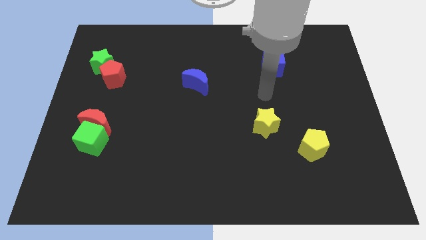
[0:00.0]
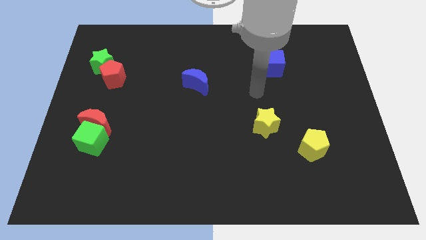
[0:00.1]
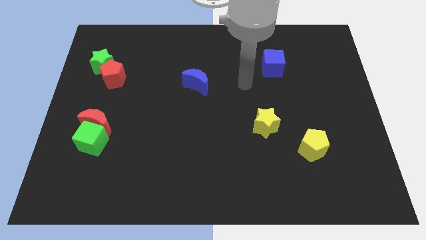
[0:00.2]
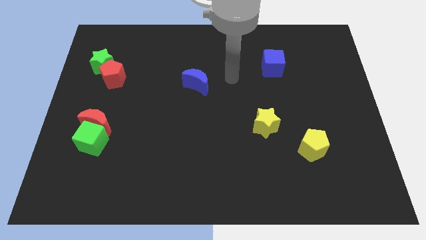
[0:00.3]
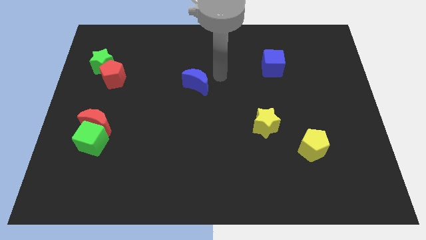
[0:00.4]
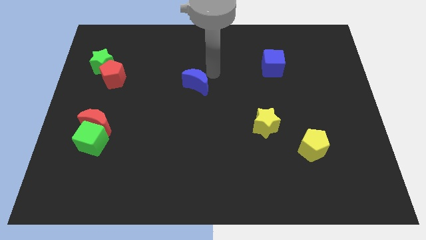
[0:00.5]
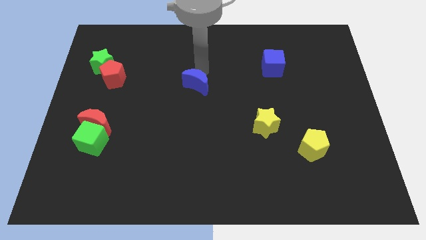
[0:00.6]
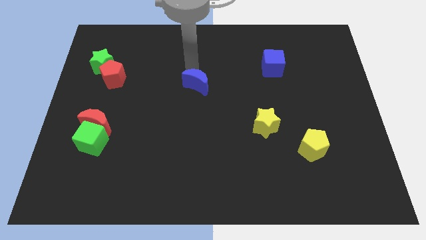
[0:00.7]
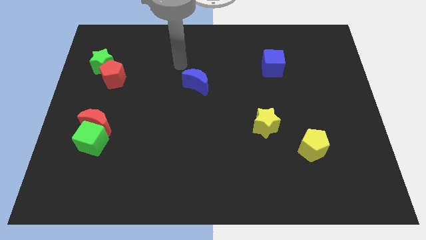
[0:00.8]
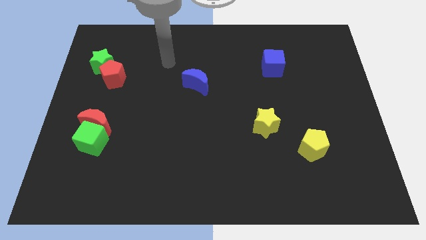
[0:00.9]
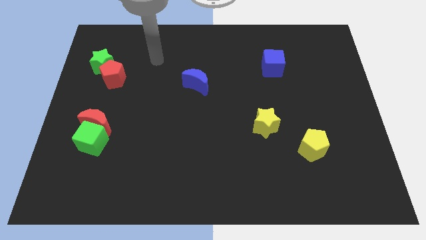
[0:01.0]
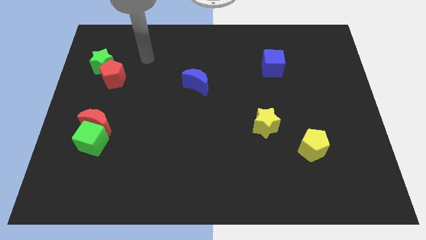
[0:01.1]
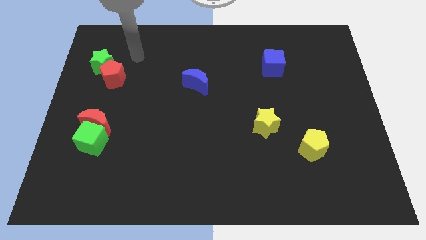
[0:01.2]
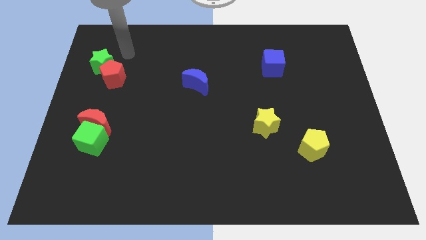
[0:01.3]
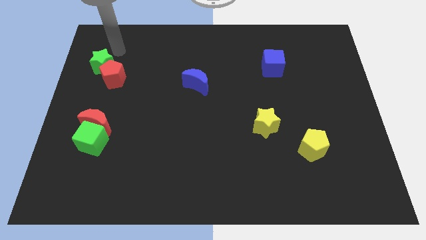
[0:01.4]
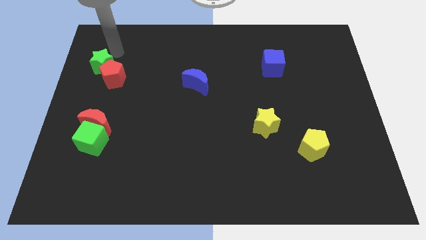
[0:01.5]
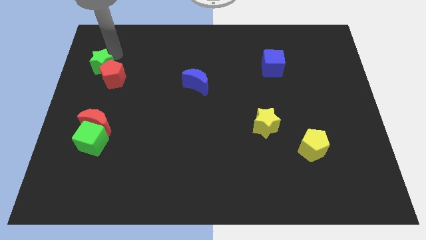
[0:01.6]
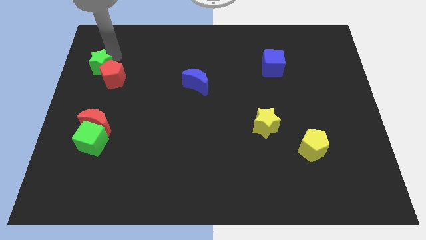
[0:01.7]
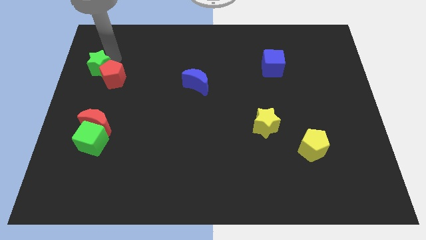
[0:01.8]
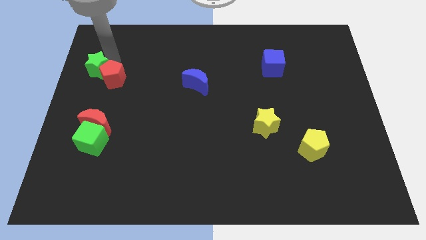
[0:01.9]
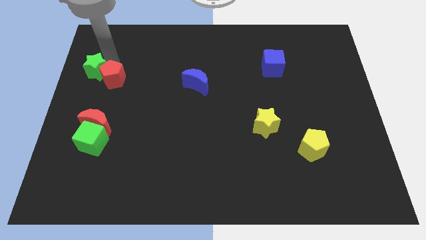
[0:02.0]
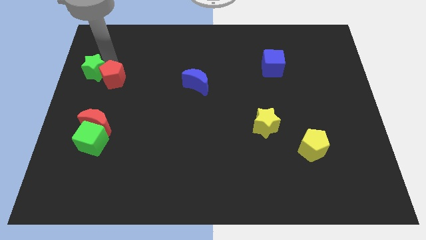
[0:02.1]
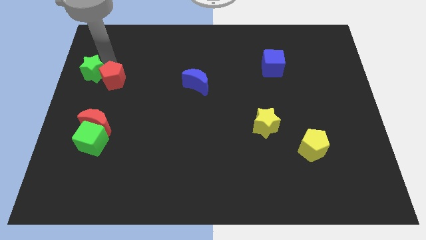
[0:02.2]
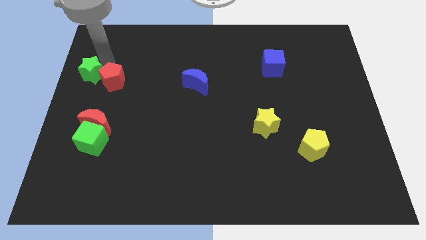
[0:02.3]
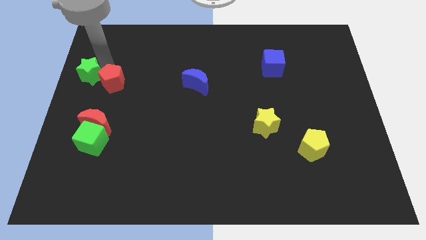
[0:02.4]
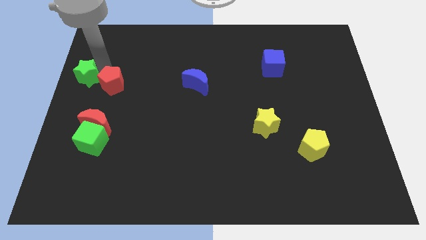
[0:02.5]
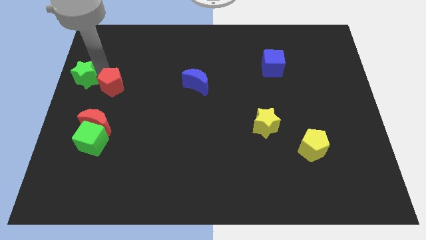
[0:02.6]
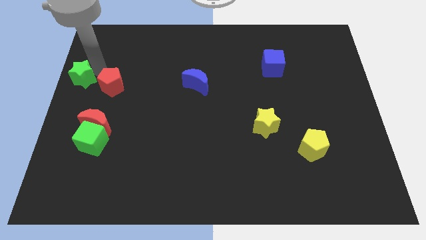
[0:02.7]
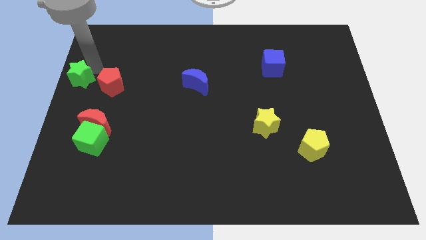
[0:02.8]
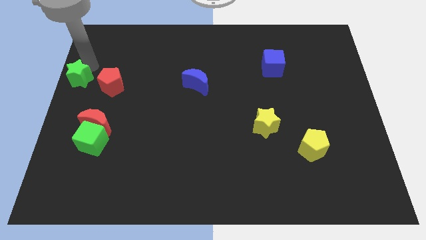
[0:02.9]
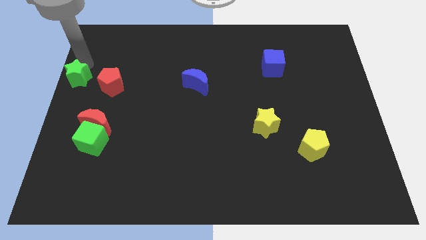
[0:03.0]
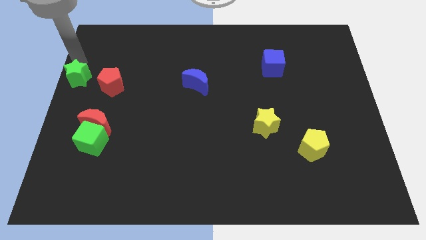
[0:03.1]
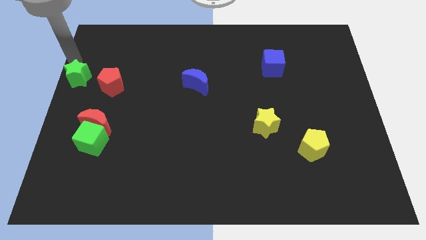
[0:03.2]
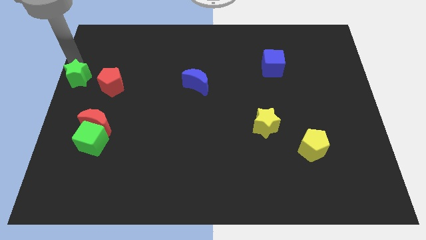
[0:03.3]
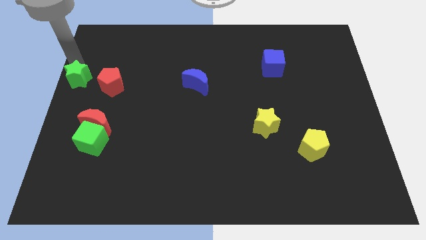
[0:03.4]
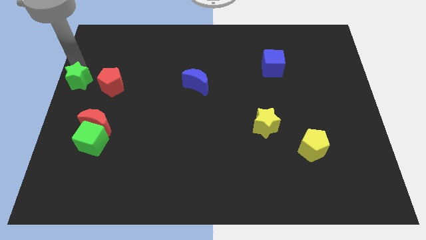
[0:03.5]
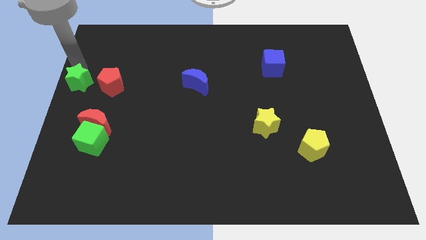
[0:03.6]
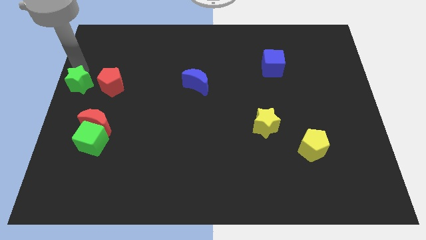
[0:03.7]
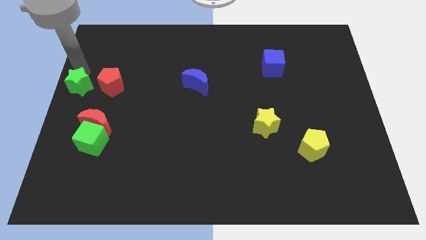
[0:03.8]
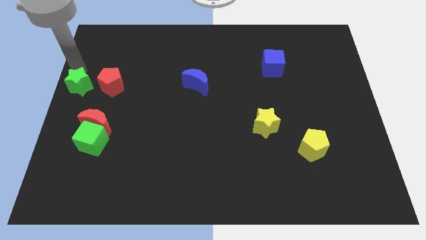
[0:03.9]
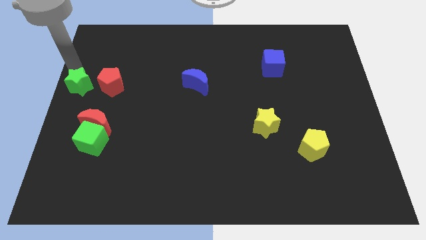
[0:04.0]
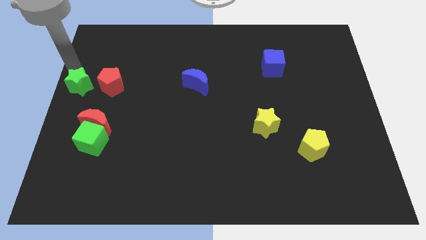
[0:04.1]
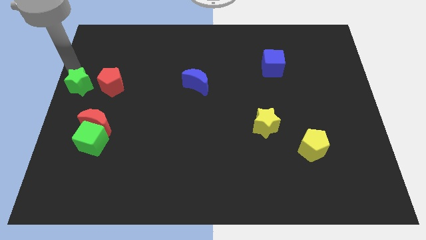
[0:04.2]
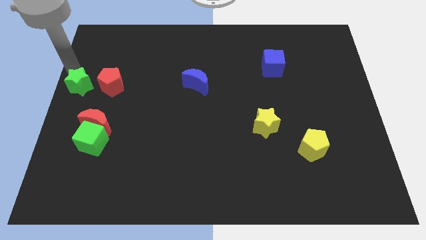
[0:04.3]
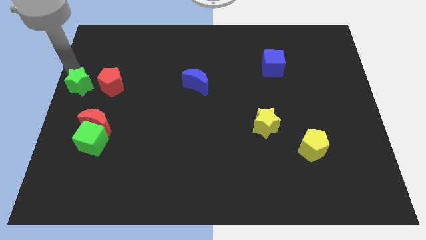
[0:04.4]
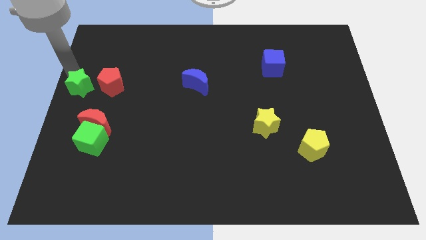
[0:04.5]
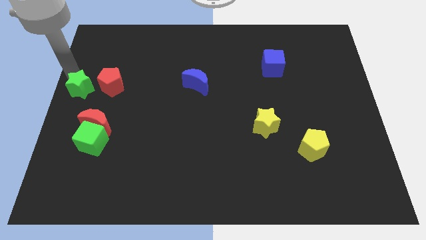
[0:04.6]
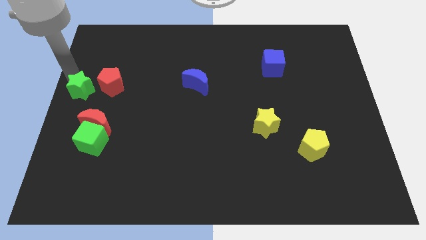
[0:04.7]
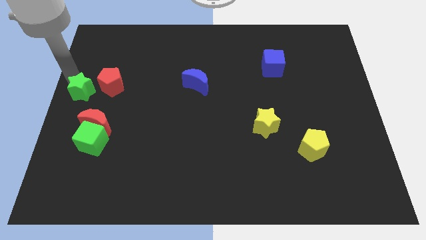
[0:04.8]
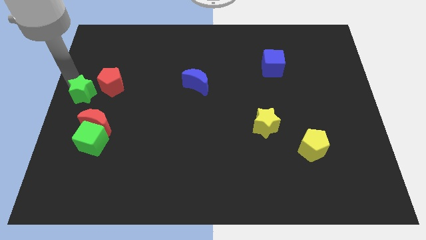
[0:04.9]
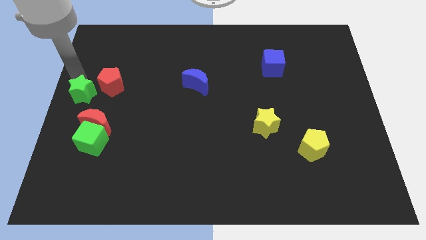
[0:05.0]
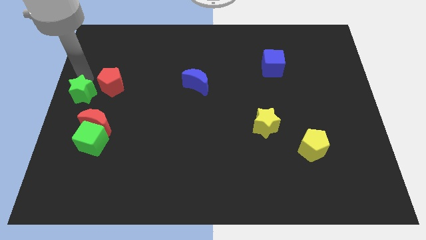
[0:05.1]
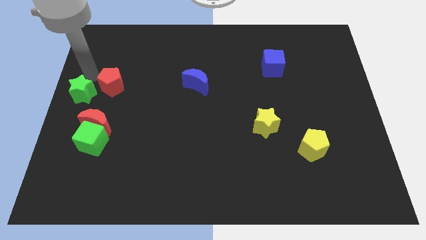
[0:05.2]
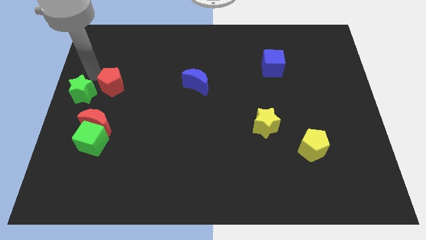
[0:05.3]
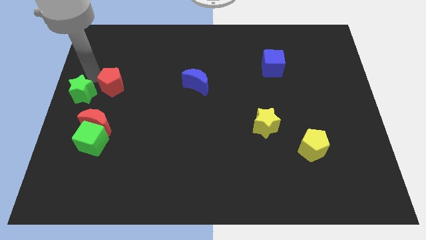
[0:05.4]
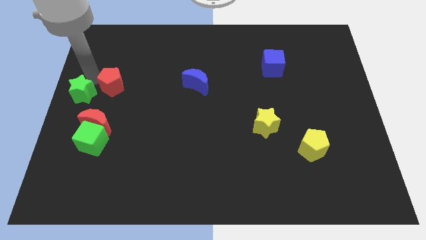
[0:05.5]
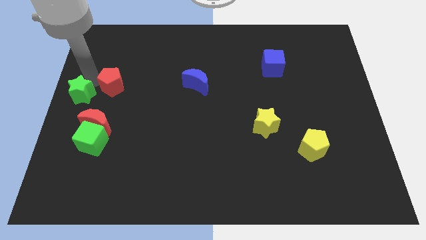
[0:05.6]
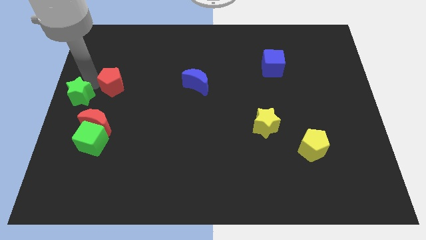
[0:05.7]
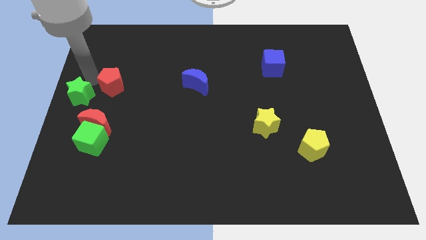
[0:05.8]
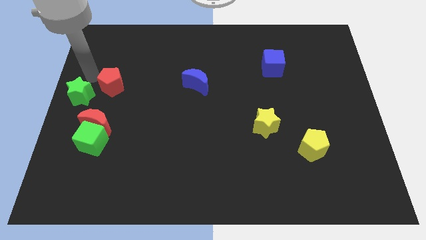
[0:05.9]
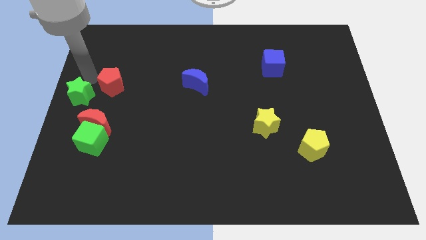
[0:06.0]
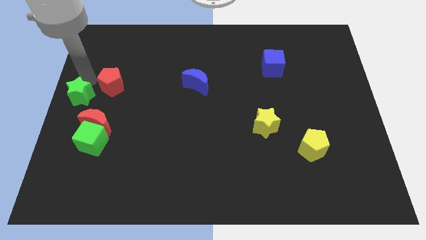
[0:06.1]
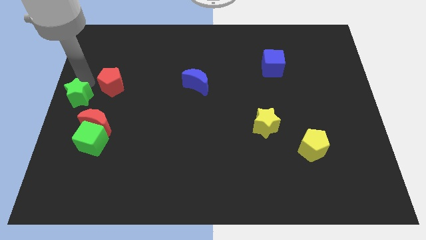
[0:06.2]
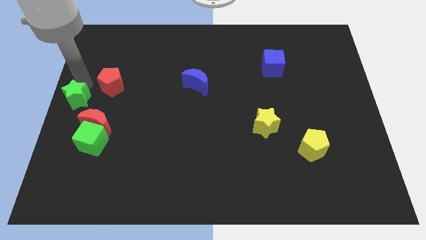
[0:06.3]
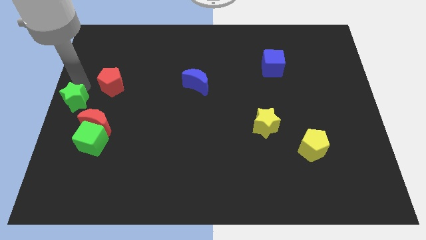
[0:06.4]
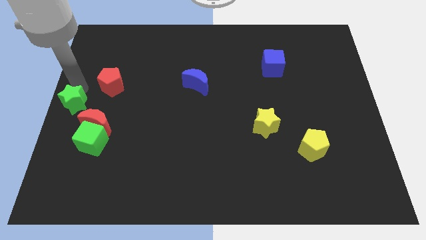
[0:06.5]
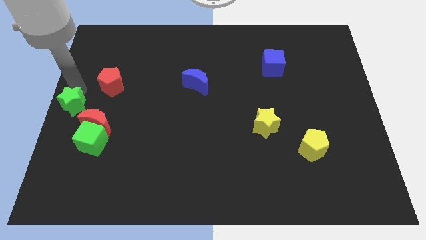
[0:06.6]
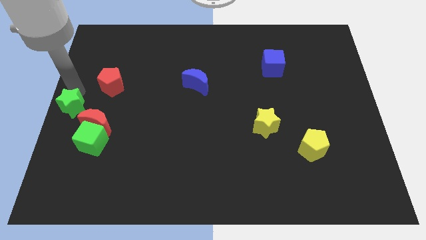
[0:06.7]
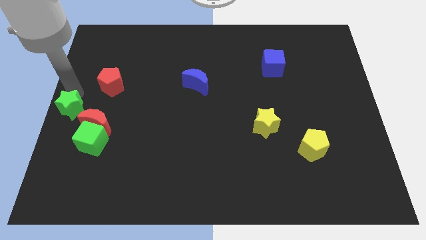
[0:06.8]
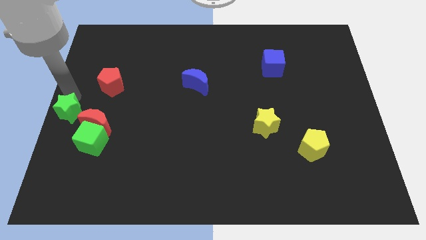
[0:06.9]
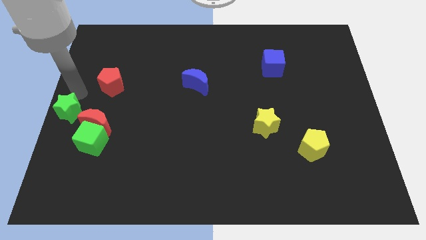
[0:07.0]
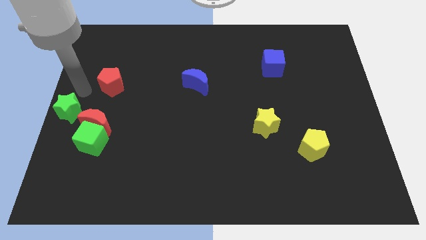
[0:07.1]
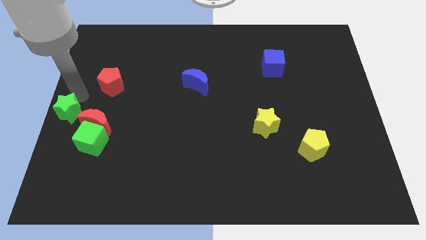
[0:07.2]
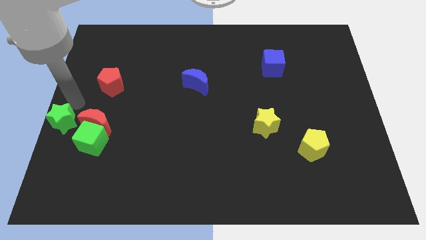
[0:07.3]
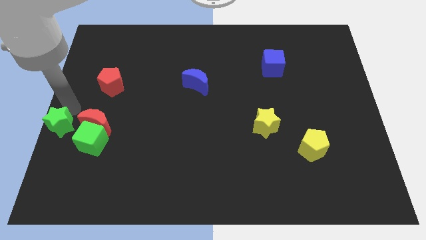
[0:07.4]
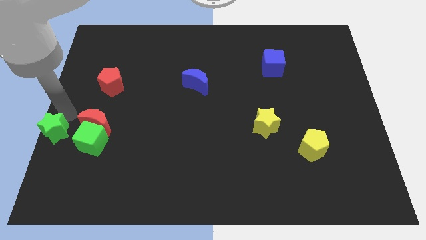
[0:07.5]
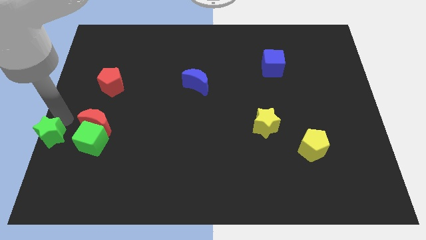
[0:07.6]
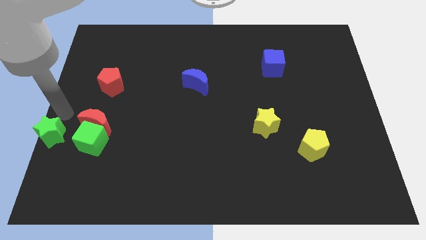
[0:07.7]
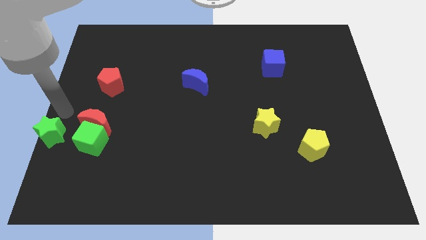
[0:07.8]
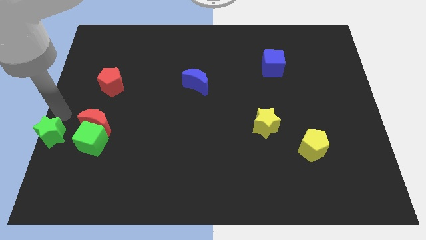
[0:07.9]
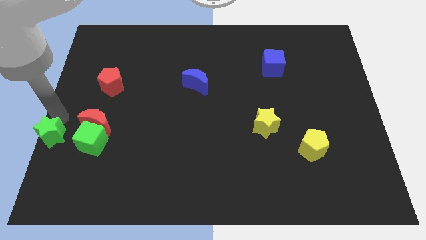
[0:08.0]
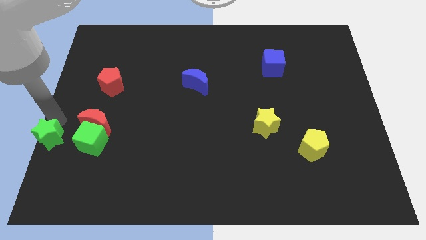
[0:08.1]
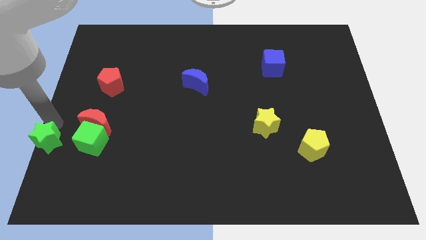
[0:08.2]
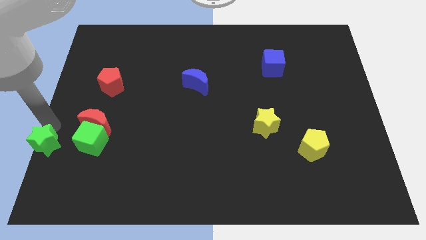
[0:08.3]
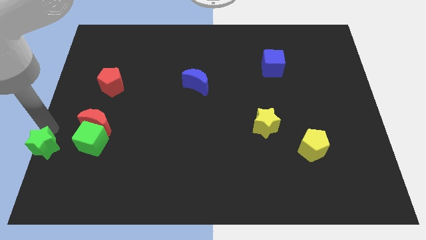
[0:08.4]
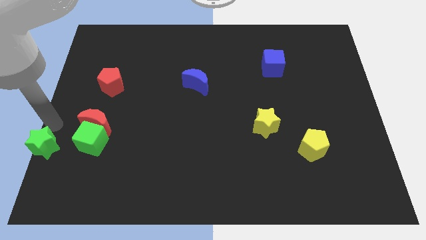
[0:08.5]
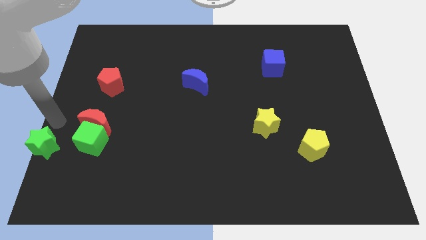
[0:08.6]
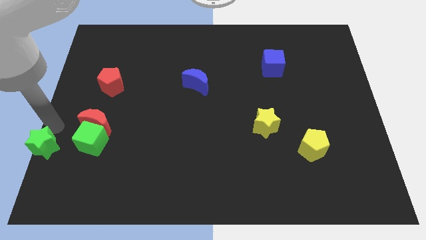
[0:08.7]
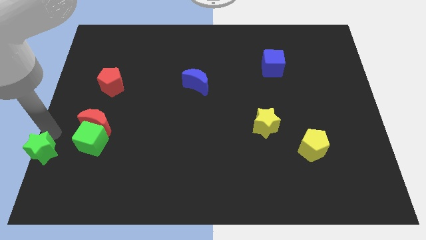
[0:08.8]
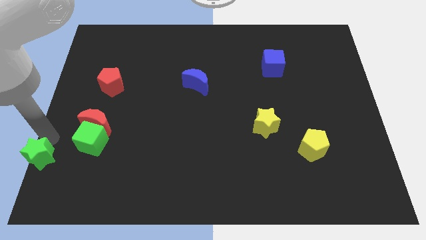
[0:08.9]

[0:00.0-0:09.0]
put the green star to the bottom left
